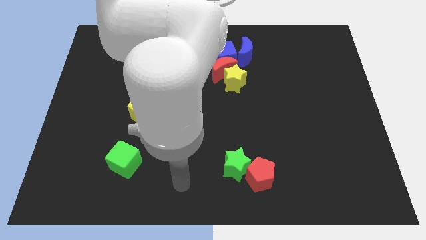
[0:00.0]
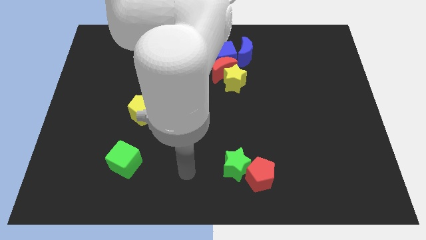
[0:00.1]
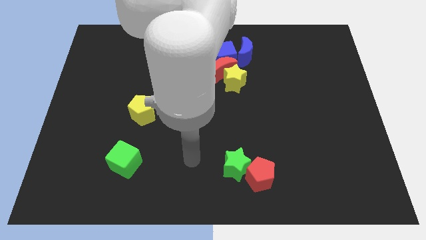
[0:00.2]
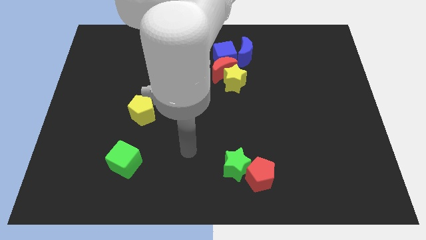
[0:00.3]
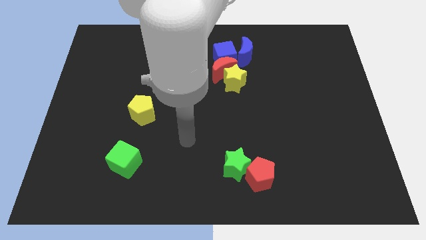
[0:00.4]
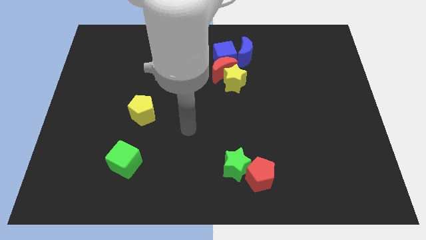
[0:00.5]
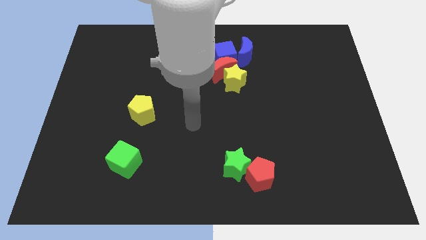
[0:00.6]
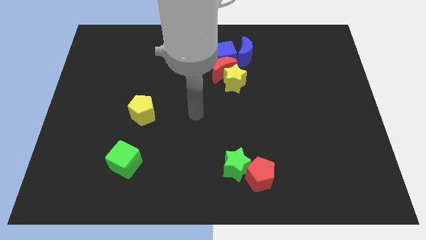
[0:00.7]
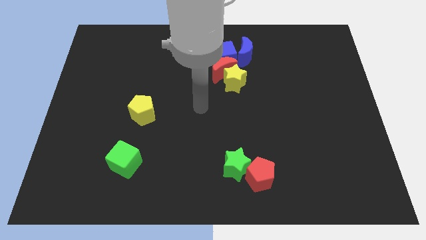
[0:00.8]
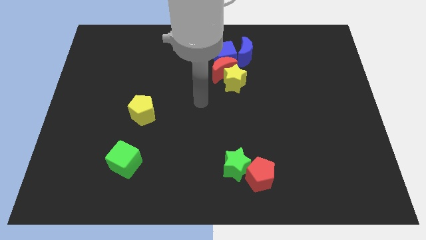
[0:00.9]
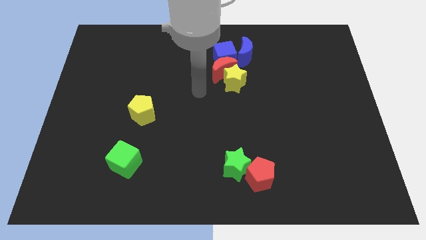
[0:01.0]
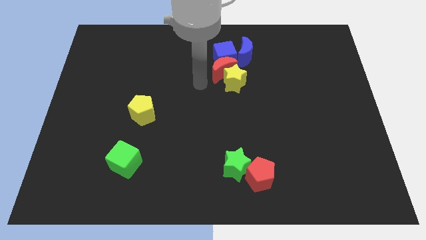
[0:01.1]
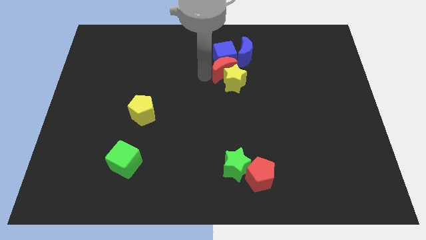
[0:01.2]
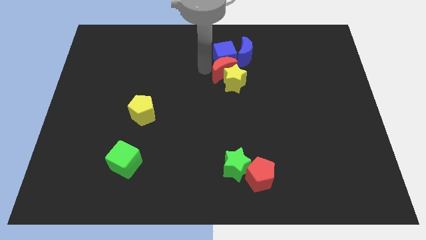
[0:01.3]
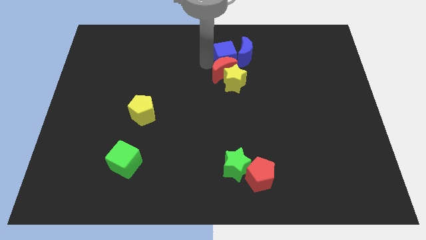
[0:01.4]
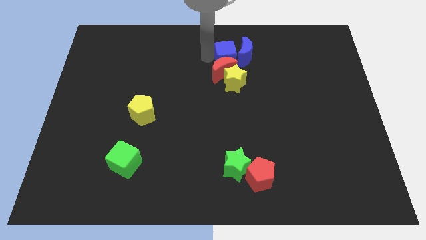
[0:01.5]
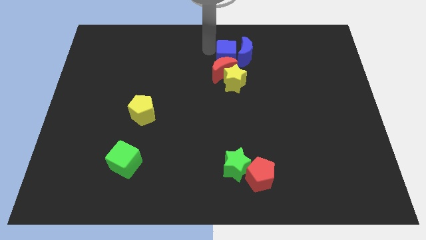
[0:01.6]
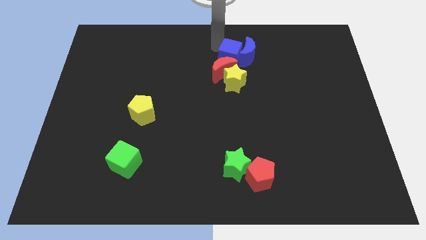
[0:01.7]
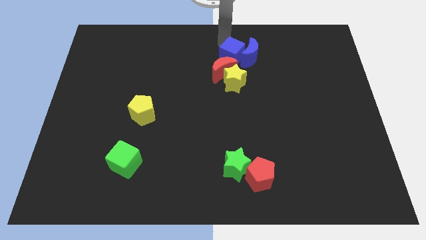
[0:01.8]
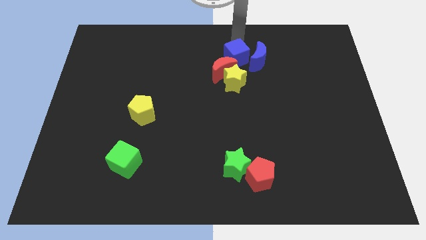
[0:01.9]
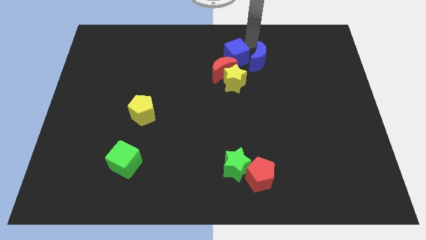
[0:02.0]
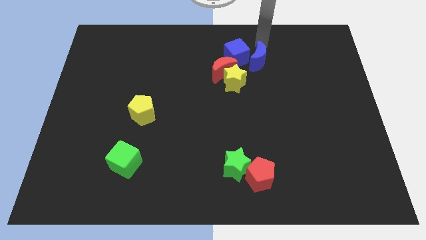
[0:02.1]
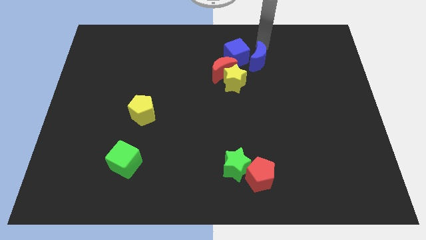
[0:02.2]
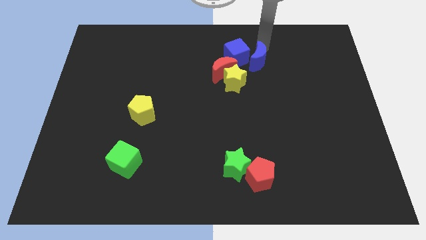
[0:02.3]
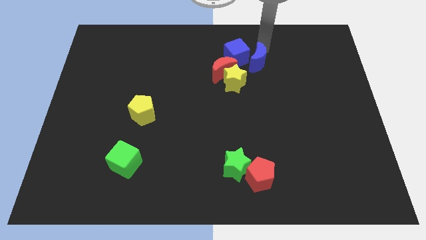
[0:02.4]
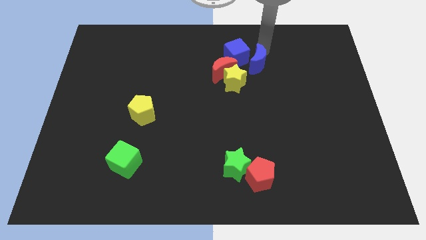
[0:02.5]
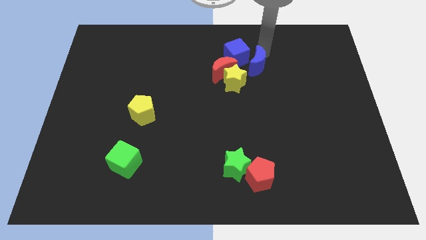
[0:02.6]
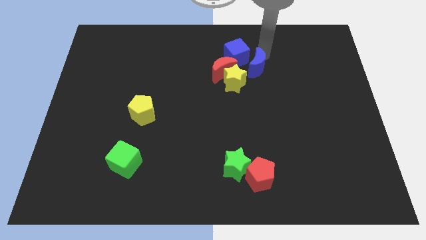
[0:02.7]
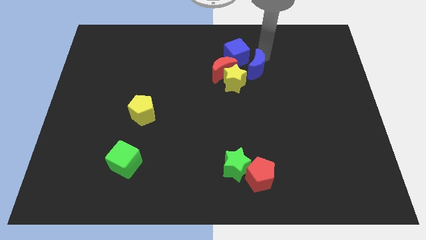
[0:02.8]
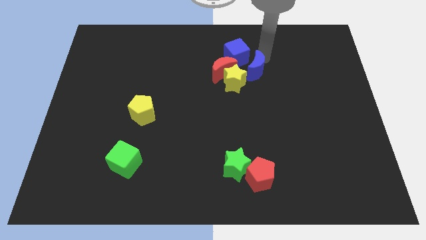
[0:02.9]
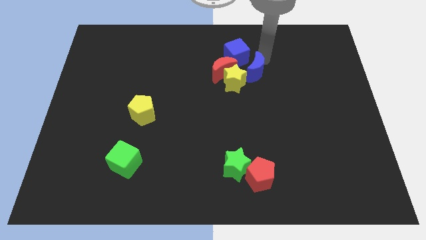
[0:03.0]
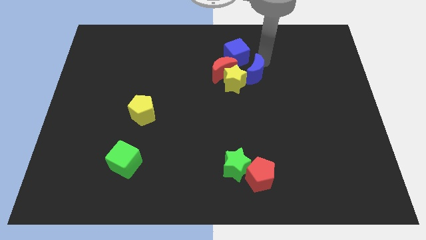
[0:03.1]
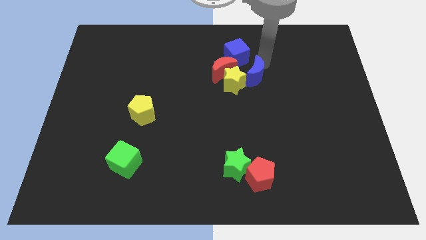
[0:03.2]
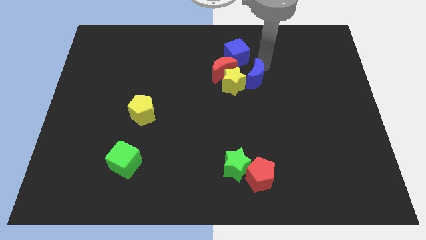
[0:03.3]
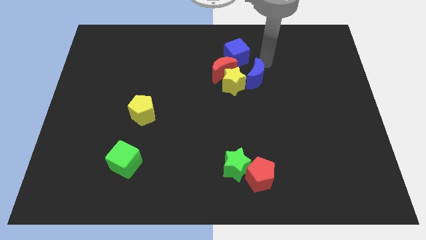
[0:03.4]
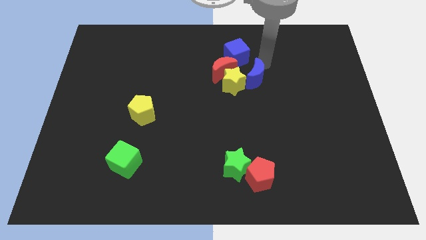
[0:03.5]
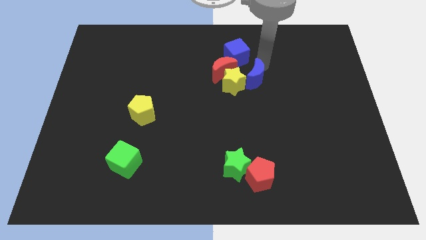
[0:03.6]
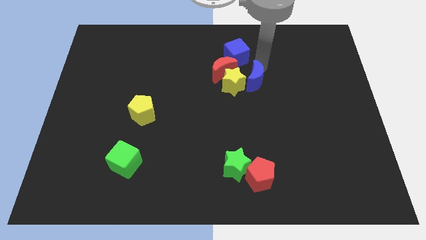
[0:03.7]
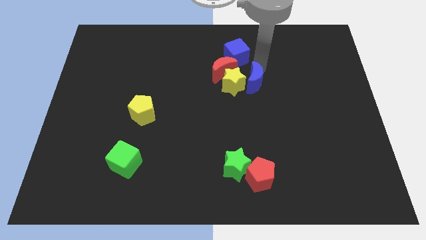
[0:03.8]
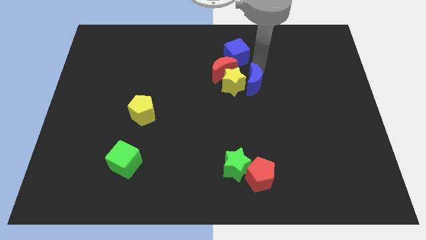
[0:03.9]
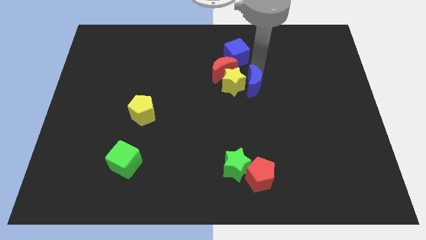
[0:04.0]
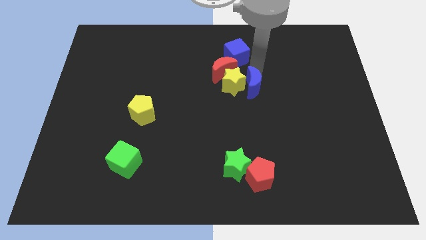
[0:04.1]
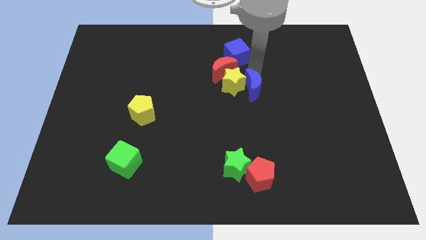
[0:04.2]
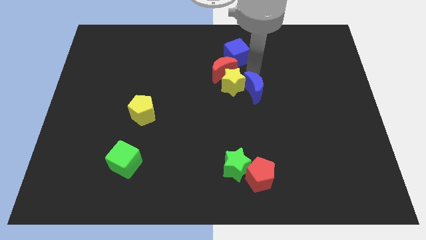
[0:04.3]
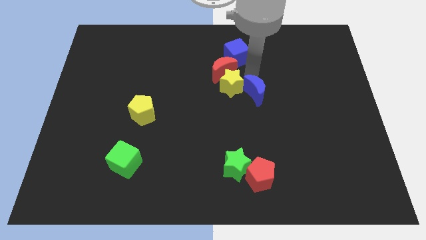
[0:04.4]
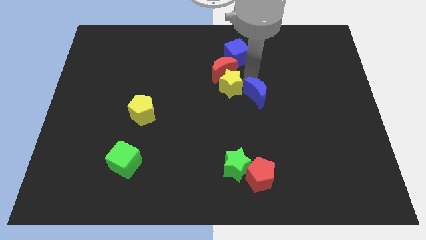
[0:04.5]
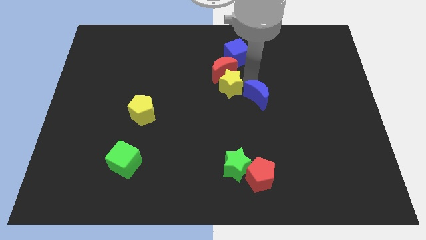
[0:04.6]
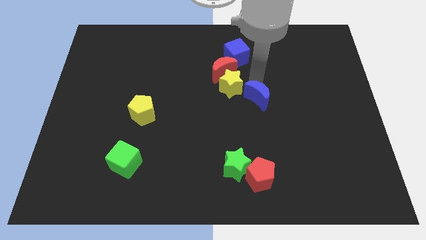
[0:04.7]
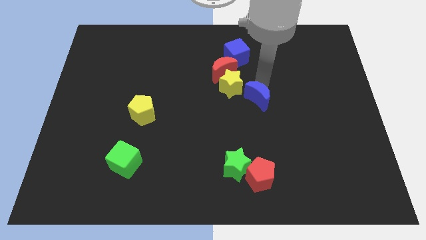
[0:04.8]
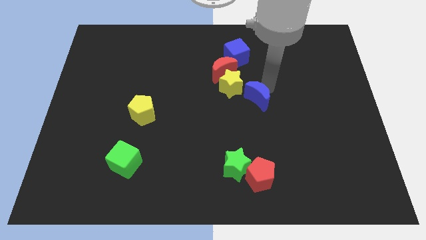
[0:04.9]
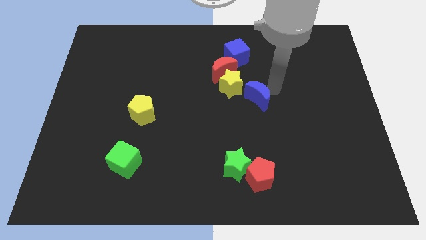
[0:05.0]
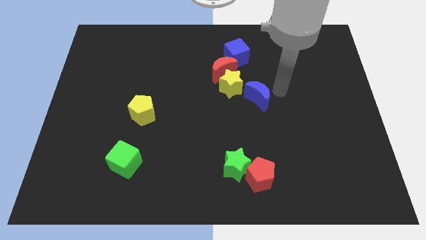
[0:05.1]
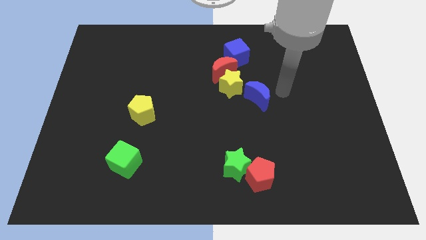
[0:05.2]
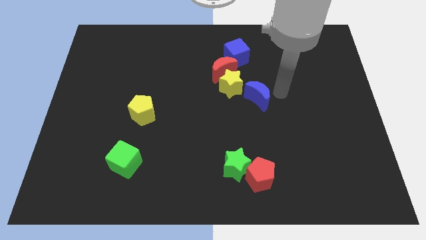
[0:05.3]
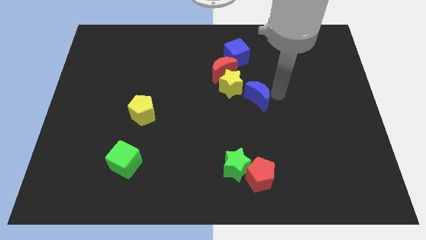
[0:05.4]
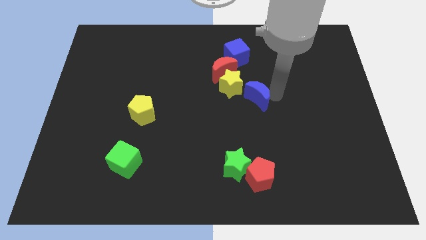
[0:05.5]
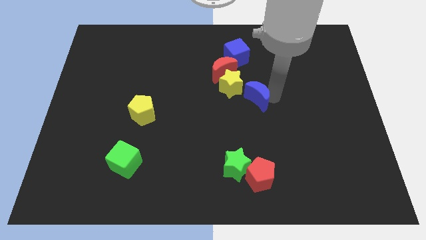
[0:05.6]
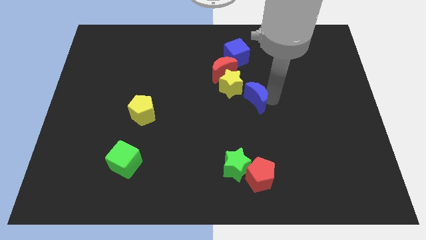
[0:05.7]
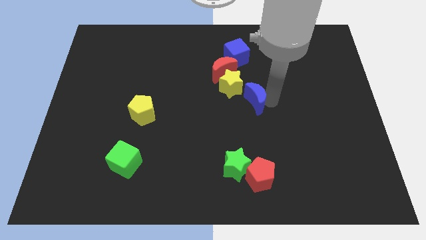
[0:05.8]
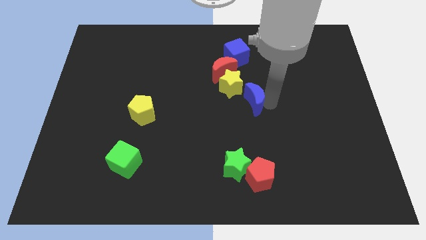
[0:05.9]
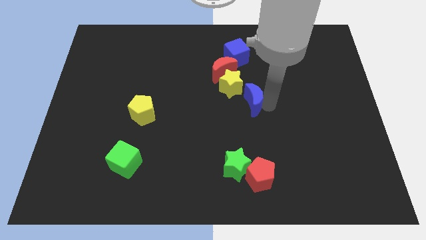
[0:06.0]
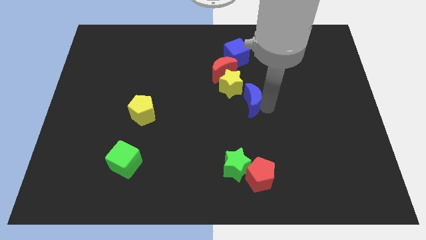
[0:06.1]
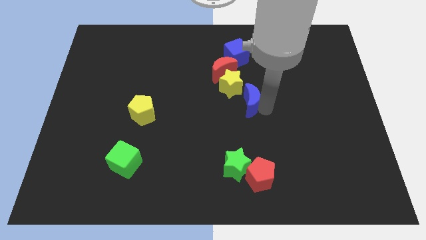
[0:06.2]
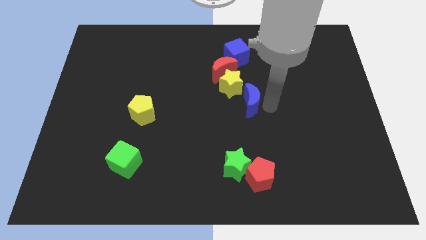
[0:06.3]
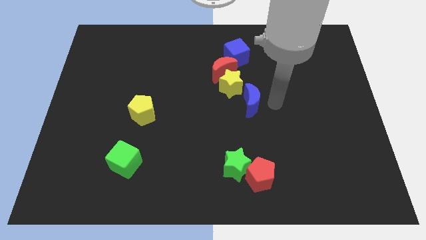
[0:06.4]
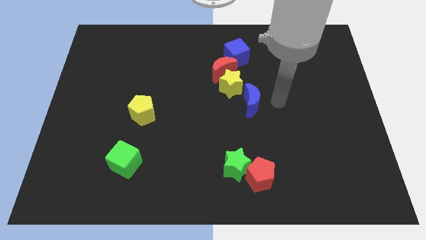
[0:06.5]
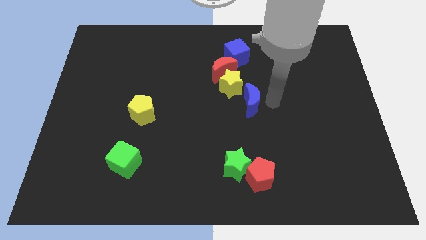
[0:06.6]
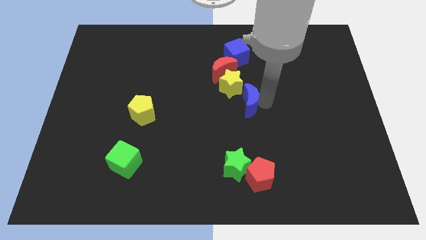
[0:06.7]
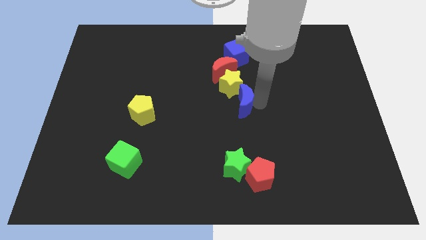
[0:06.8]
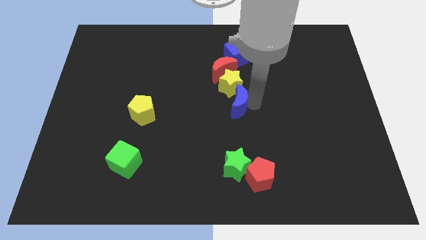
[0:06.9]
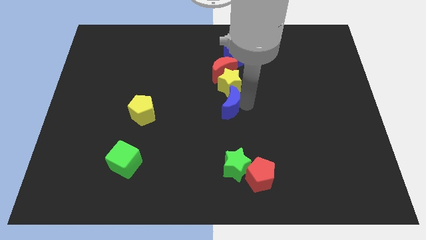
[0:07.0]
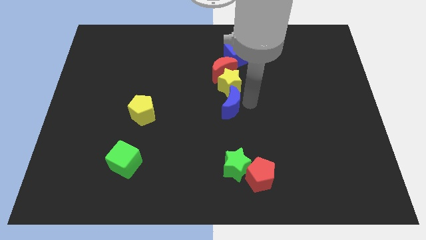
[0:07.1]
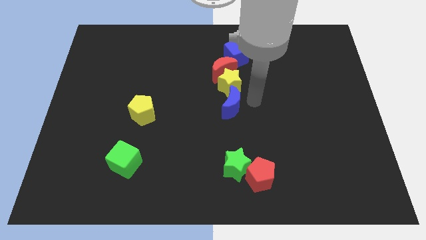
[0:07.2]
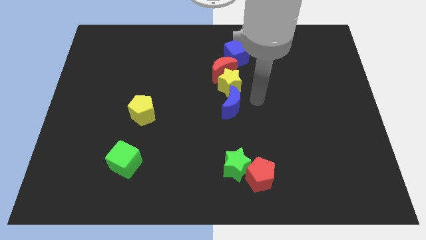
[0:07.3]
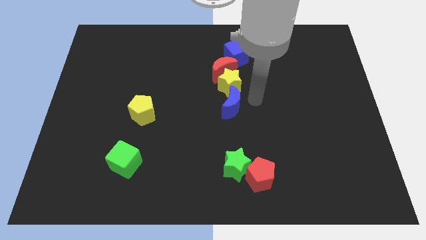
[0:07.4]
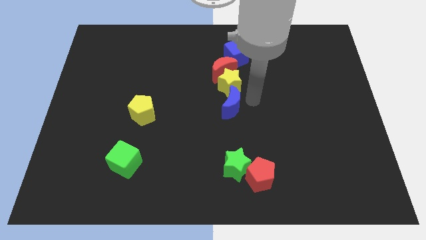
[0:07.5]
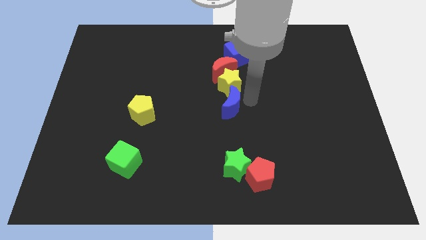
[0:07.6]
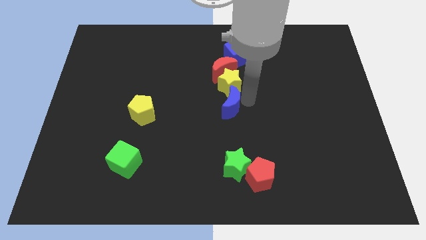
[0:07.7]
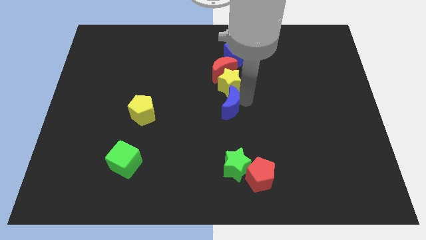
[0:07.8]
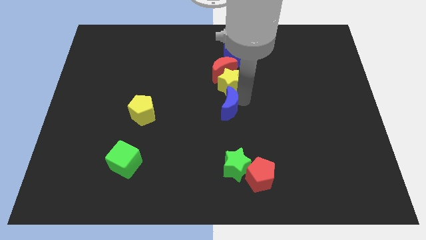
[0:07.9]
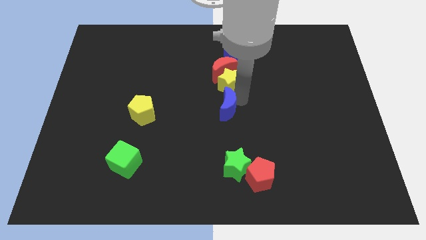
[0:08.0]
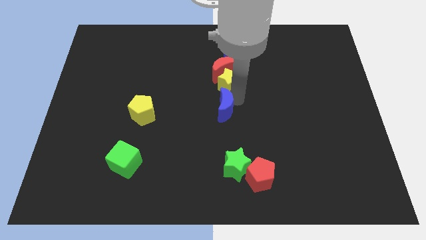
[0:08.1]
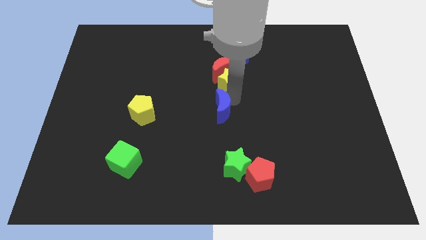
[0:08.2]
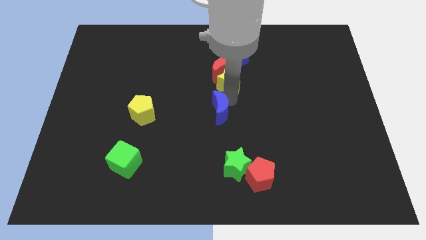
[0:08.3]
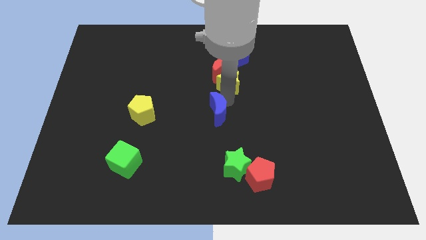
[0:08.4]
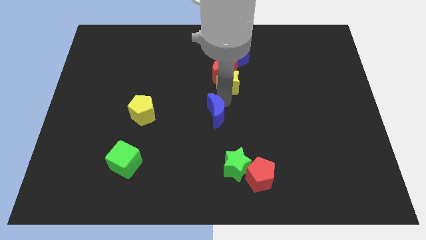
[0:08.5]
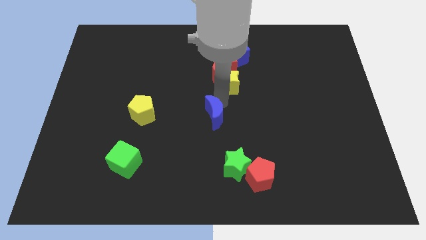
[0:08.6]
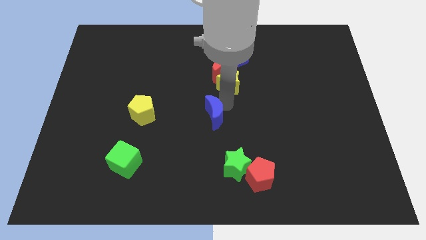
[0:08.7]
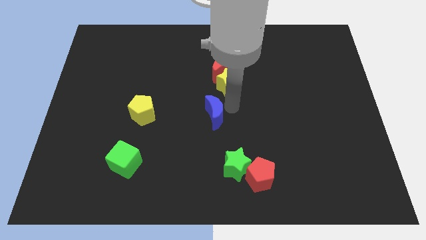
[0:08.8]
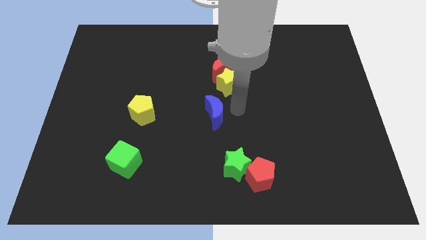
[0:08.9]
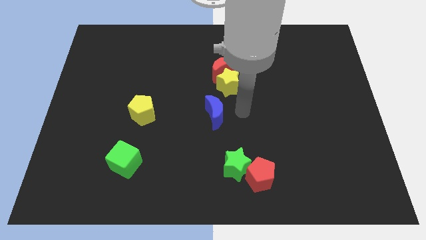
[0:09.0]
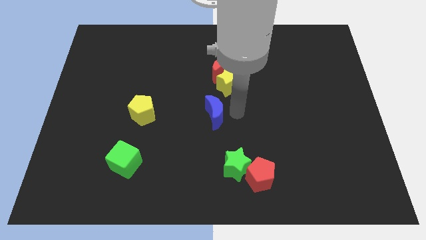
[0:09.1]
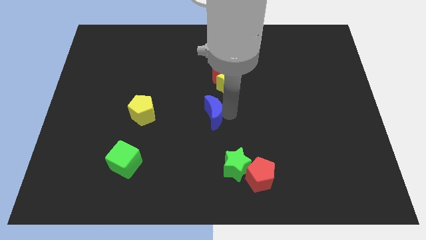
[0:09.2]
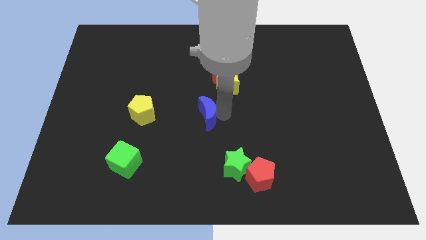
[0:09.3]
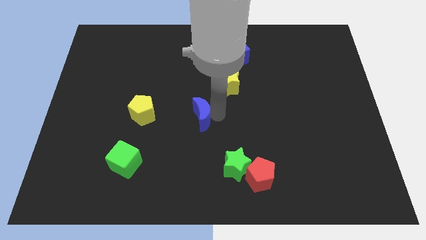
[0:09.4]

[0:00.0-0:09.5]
move the blue moon down and then left
